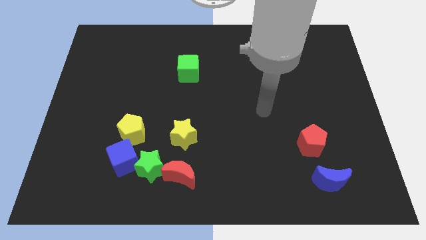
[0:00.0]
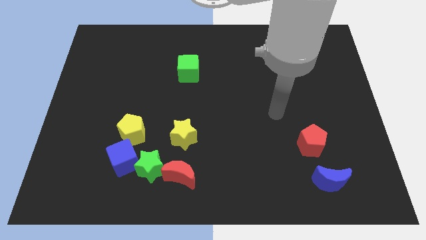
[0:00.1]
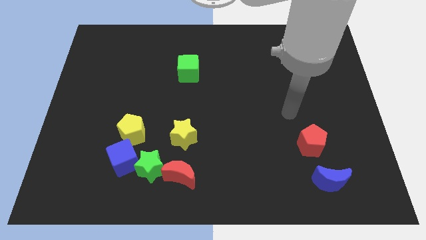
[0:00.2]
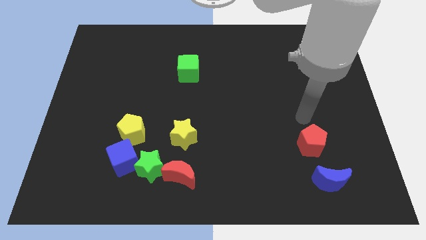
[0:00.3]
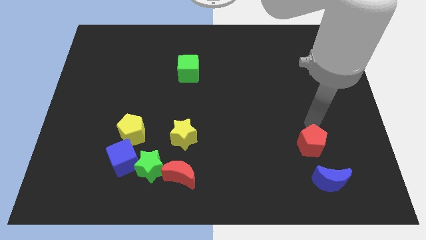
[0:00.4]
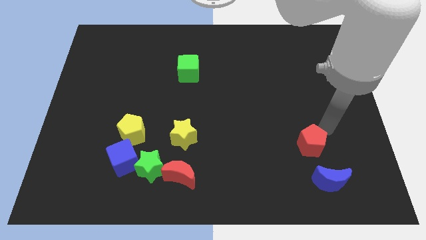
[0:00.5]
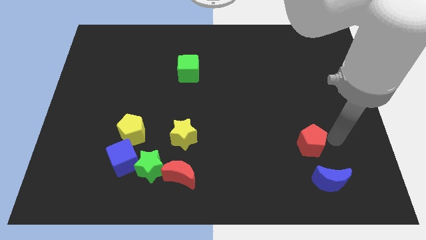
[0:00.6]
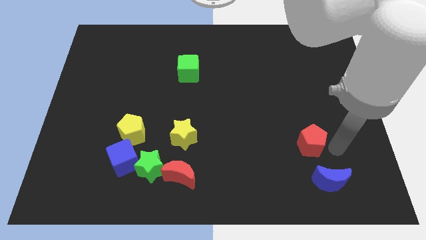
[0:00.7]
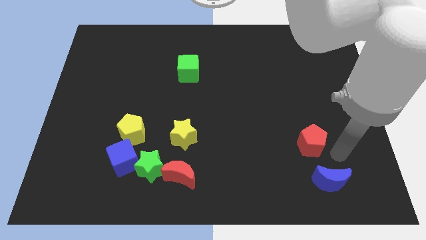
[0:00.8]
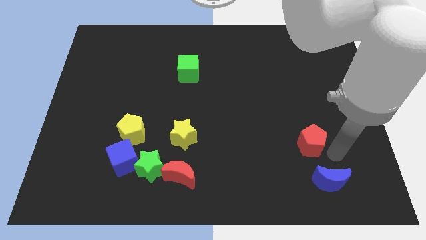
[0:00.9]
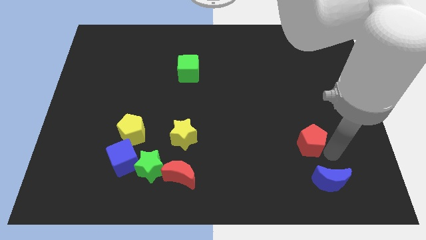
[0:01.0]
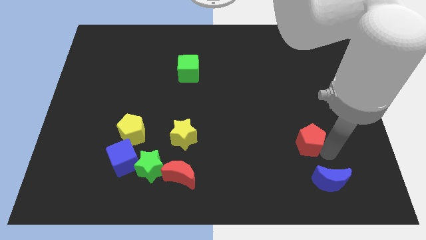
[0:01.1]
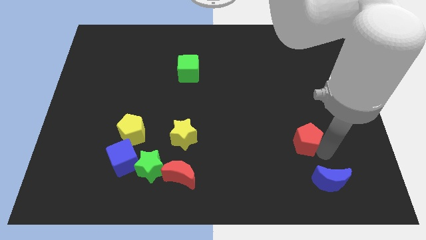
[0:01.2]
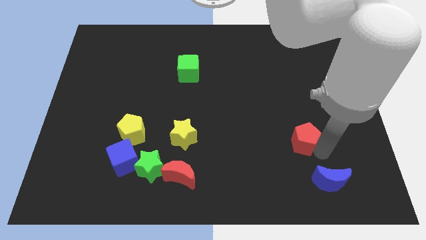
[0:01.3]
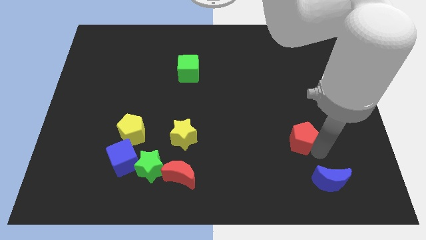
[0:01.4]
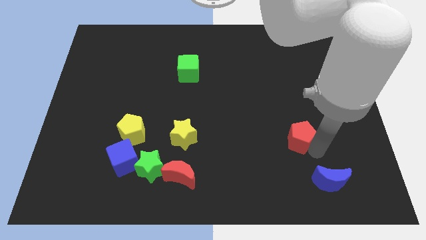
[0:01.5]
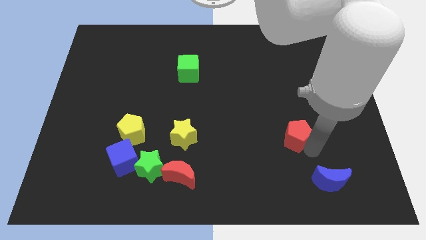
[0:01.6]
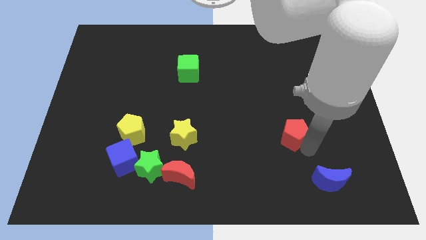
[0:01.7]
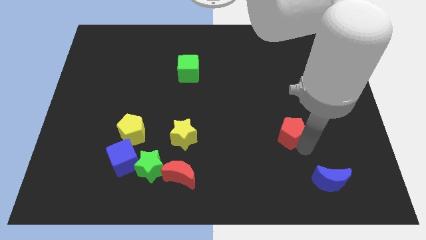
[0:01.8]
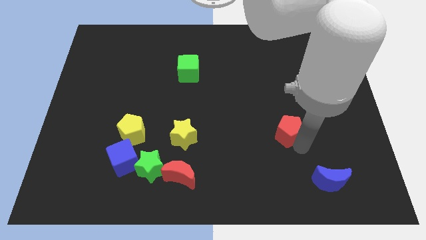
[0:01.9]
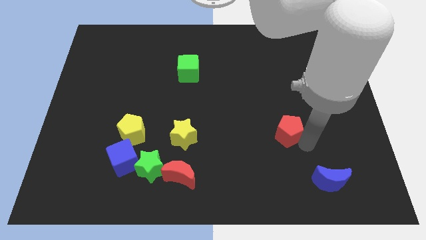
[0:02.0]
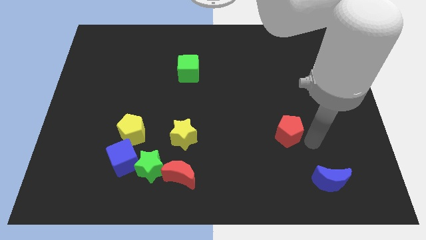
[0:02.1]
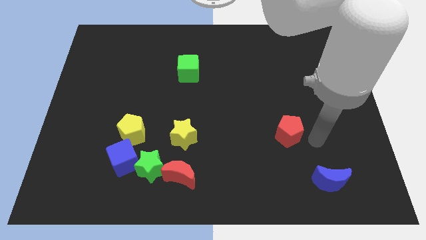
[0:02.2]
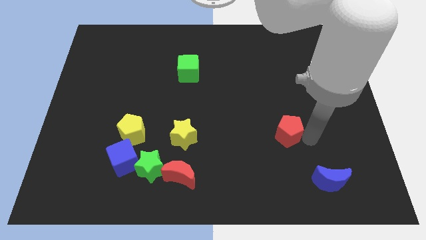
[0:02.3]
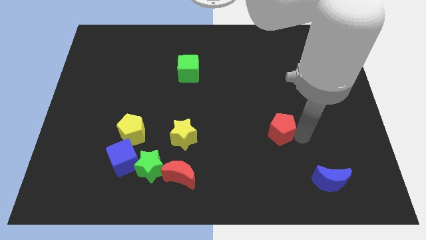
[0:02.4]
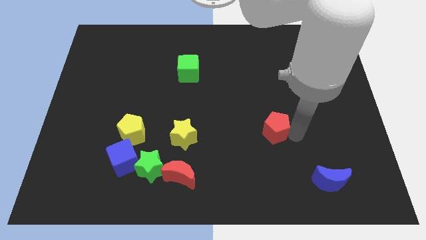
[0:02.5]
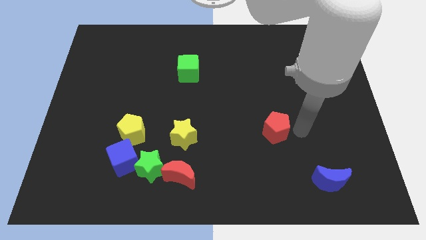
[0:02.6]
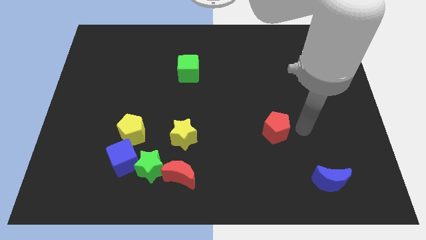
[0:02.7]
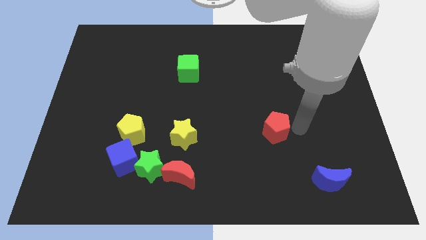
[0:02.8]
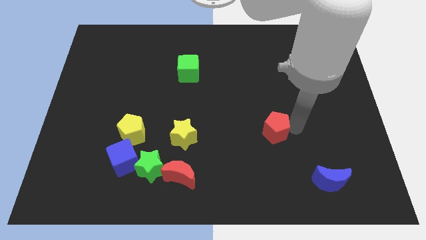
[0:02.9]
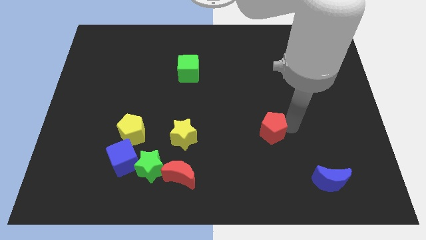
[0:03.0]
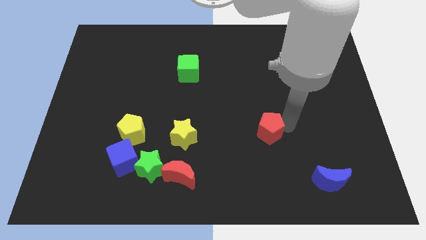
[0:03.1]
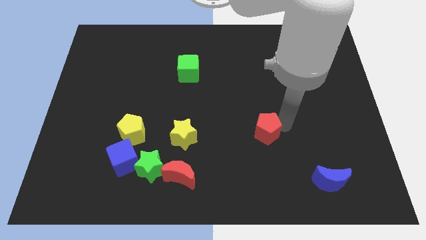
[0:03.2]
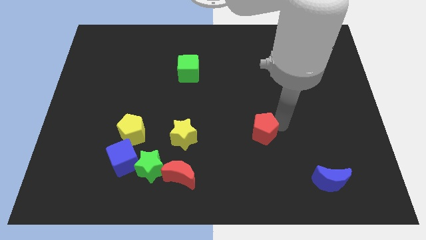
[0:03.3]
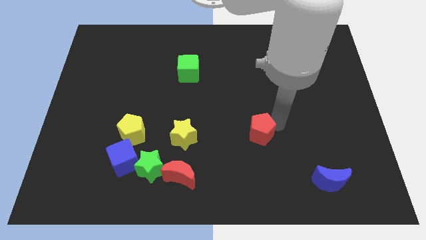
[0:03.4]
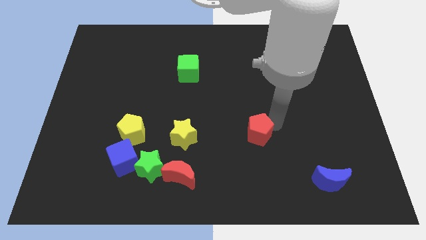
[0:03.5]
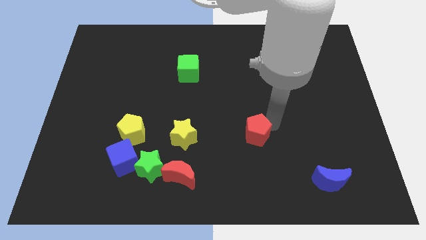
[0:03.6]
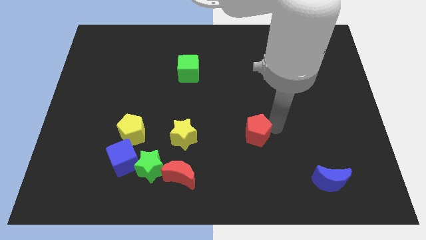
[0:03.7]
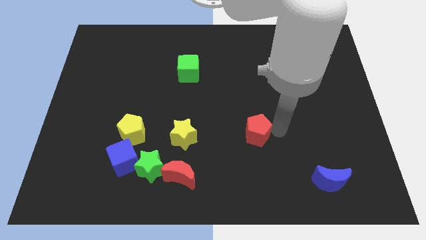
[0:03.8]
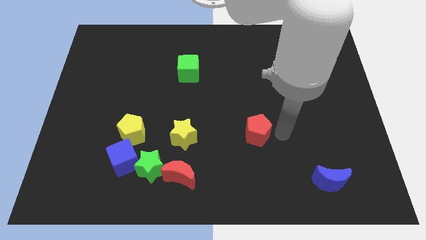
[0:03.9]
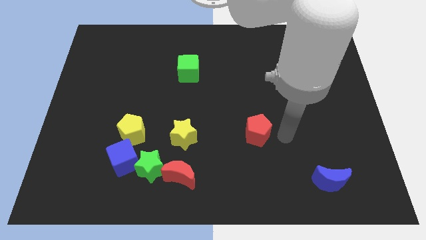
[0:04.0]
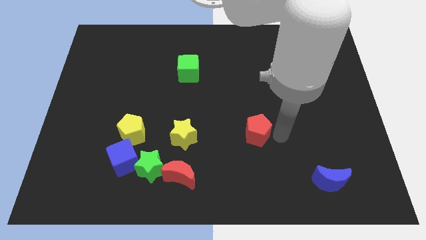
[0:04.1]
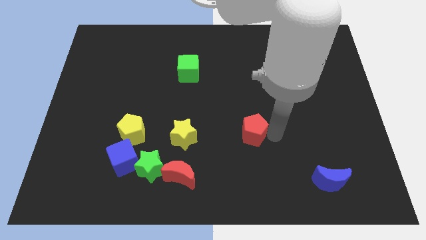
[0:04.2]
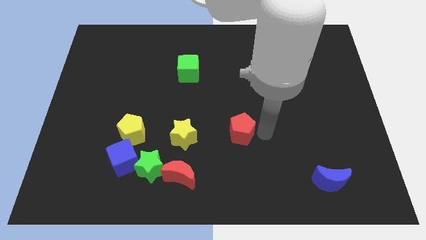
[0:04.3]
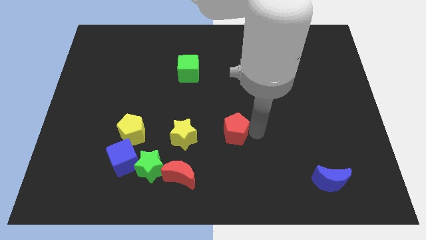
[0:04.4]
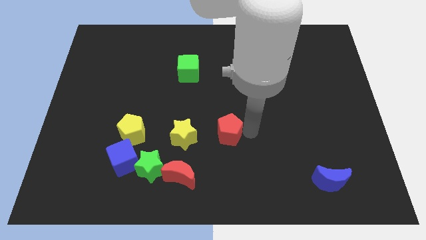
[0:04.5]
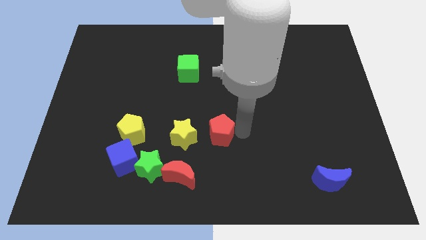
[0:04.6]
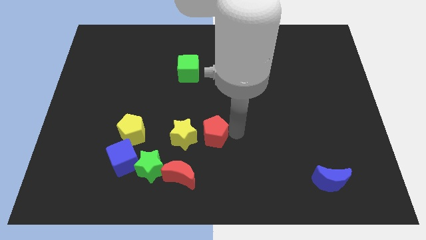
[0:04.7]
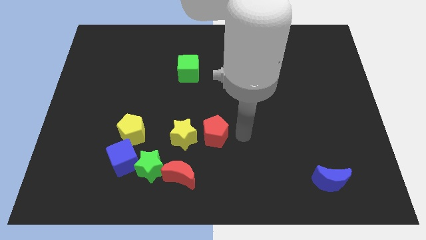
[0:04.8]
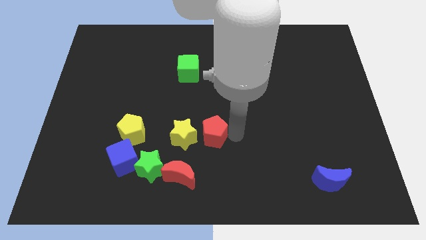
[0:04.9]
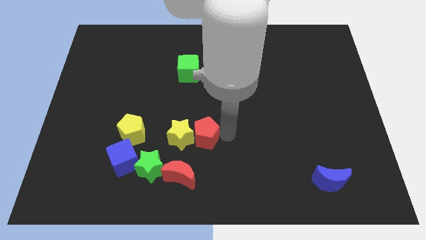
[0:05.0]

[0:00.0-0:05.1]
move the red pentagon right of the yellow pentagon

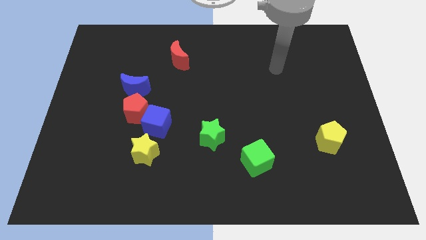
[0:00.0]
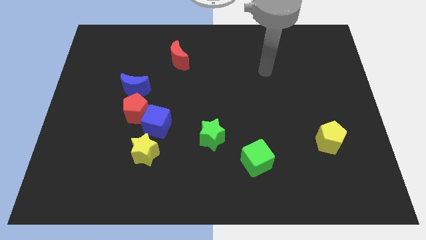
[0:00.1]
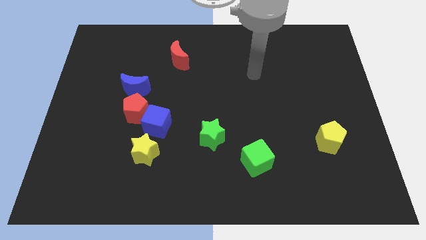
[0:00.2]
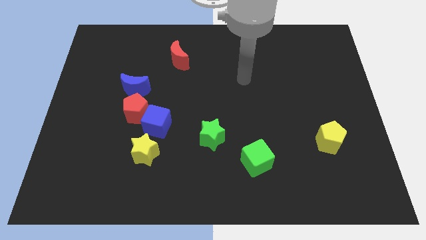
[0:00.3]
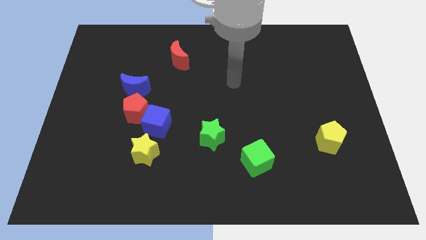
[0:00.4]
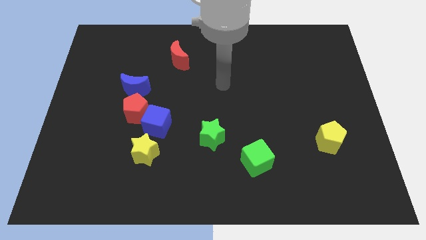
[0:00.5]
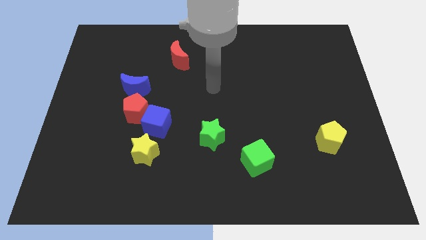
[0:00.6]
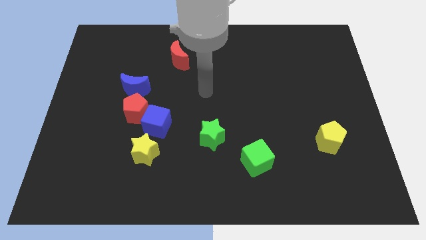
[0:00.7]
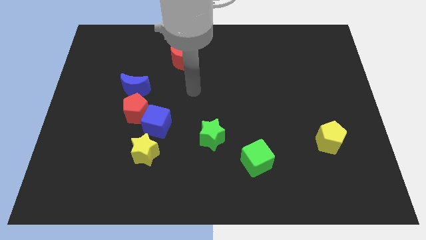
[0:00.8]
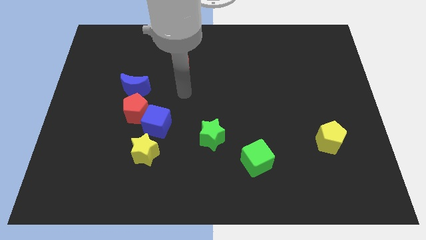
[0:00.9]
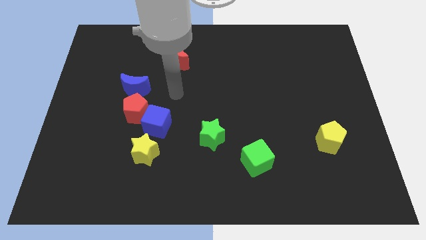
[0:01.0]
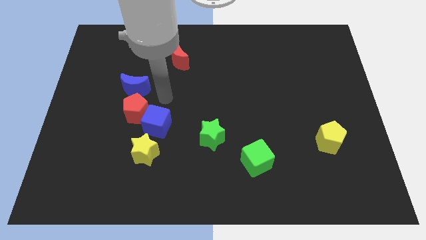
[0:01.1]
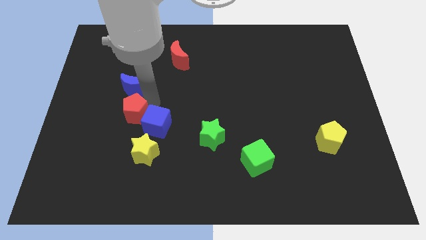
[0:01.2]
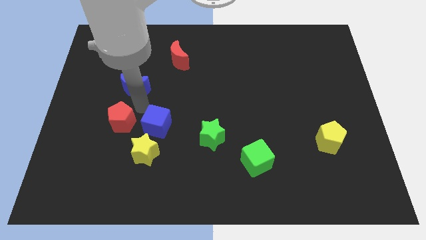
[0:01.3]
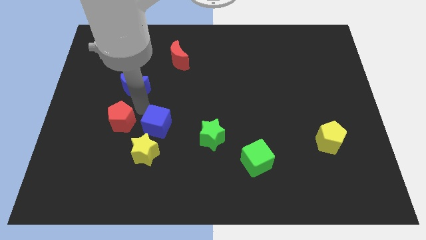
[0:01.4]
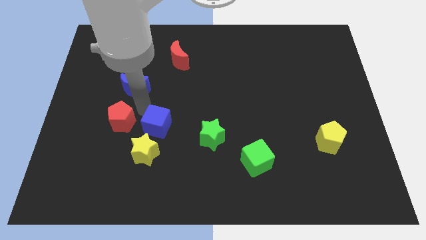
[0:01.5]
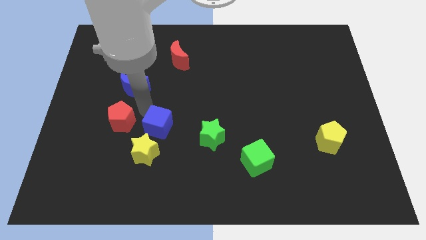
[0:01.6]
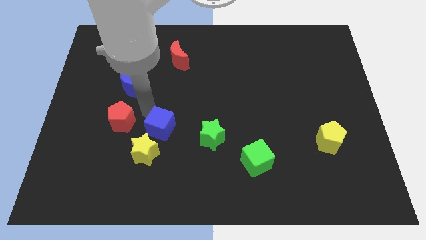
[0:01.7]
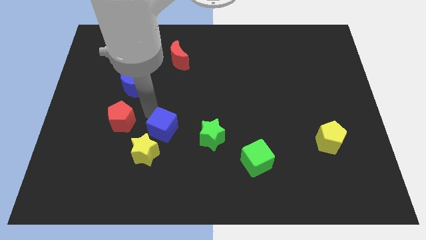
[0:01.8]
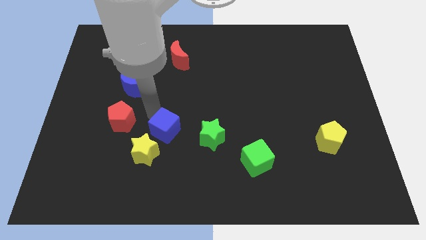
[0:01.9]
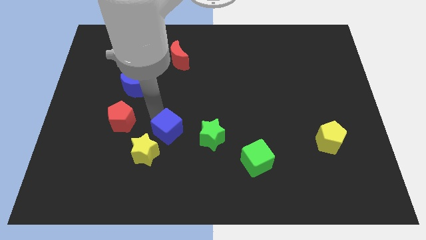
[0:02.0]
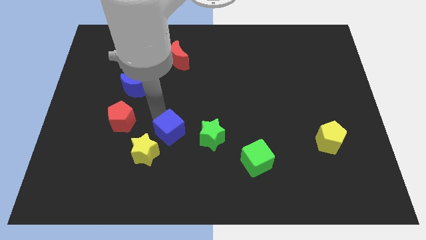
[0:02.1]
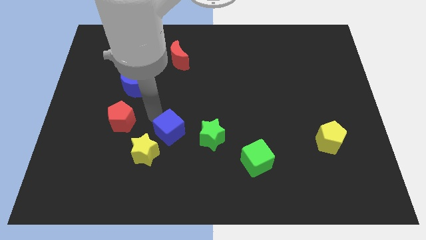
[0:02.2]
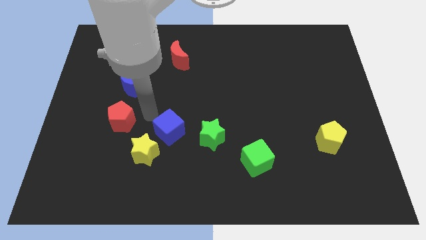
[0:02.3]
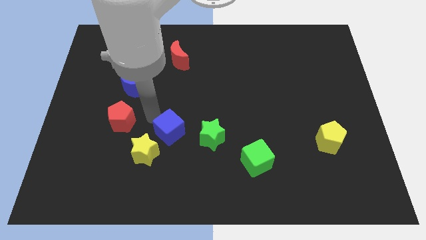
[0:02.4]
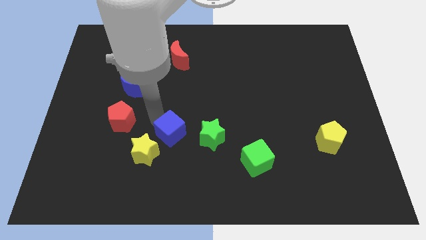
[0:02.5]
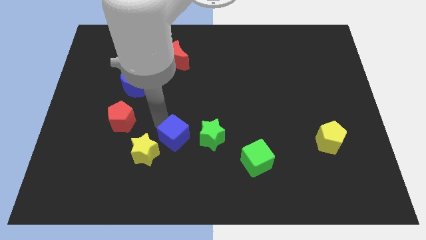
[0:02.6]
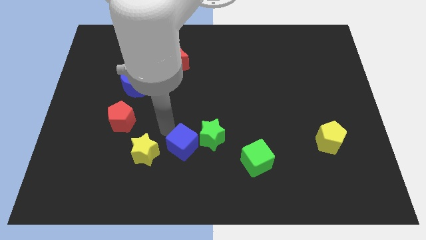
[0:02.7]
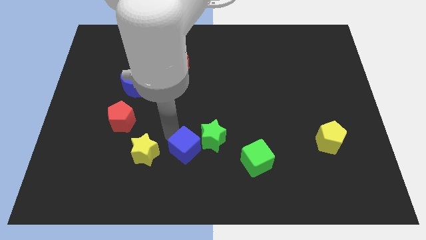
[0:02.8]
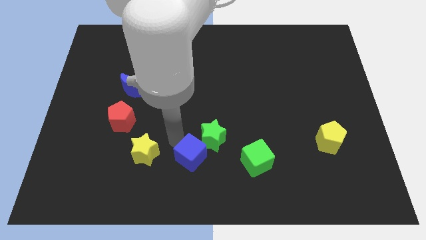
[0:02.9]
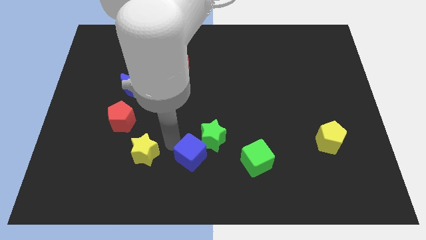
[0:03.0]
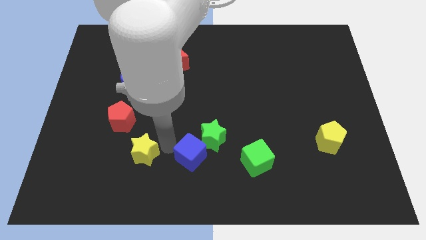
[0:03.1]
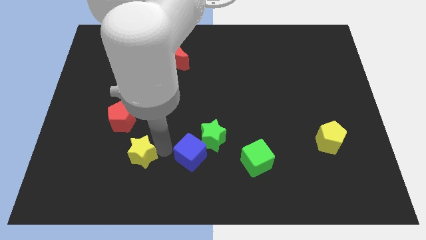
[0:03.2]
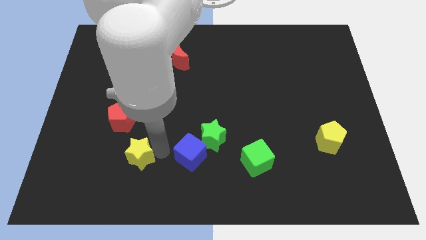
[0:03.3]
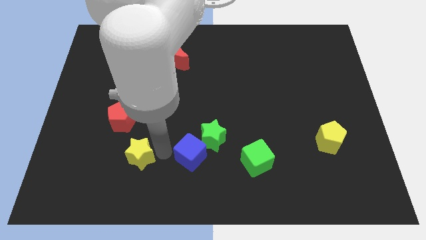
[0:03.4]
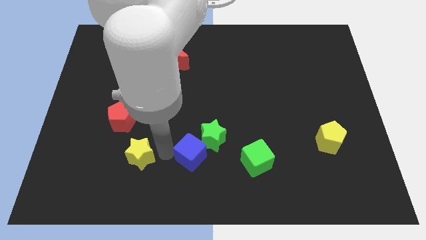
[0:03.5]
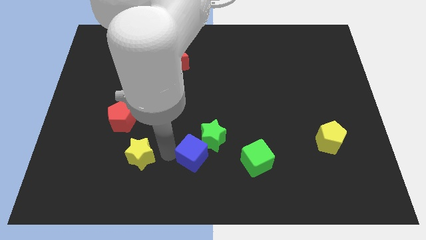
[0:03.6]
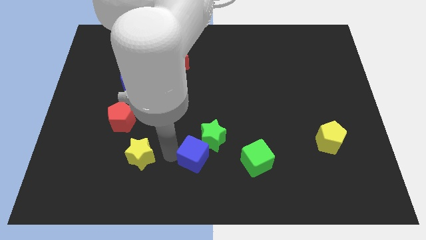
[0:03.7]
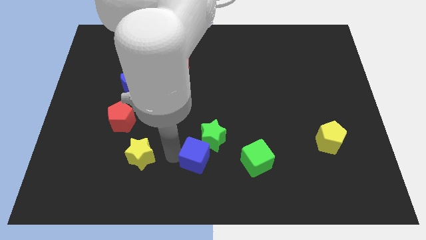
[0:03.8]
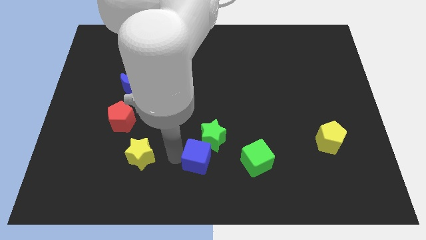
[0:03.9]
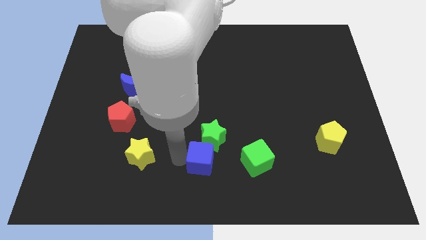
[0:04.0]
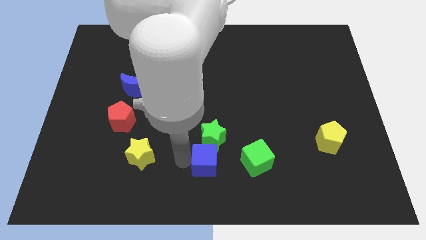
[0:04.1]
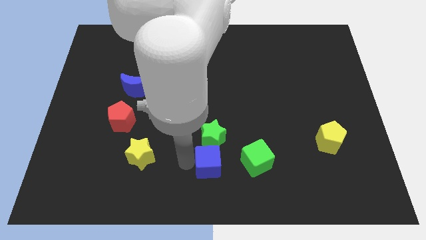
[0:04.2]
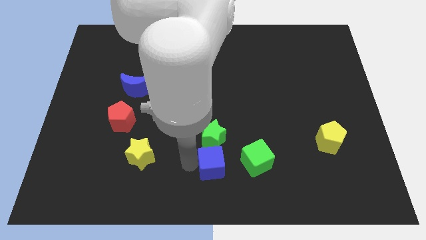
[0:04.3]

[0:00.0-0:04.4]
slide the blue cube diagonally down and to the right of the green star
